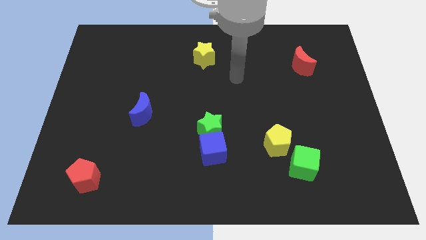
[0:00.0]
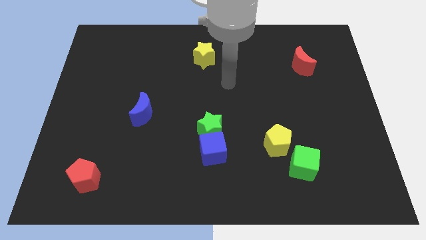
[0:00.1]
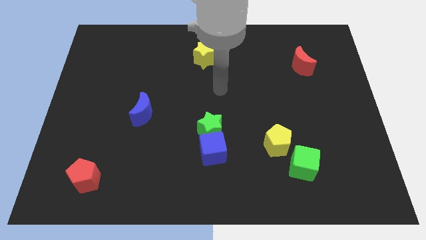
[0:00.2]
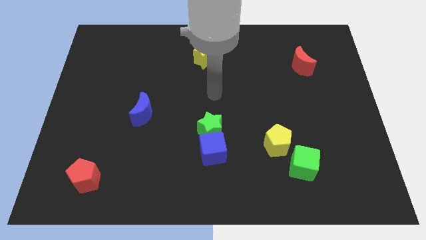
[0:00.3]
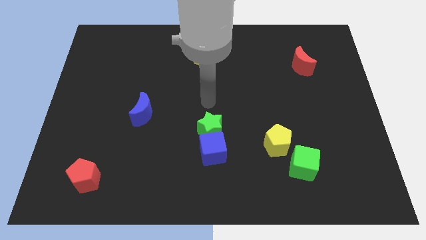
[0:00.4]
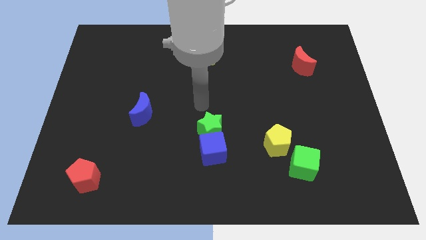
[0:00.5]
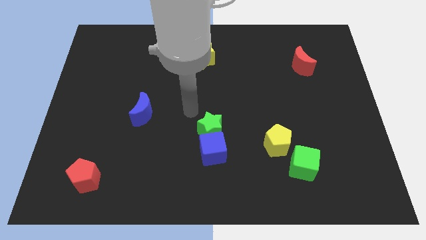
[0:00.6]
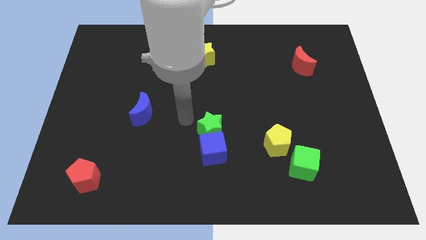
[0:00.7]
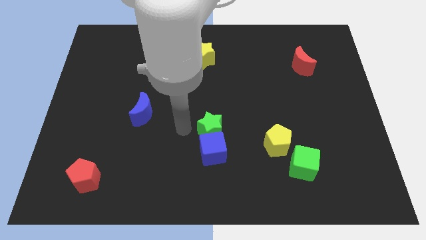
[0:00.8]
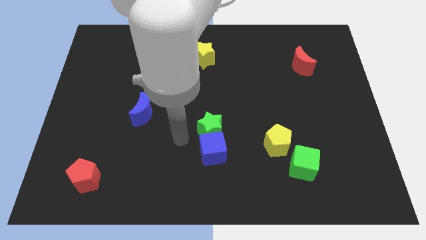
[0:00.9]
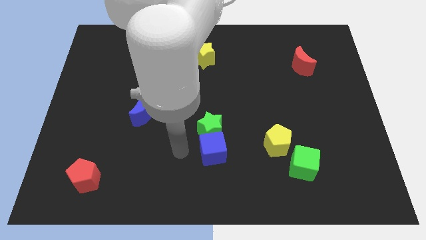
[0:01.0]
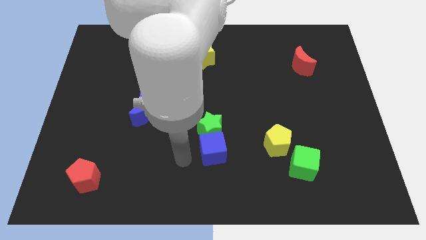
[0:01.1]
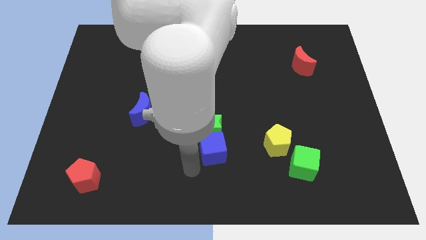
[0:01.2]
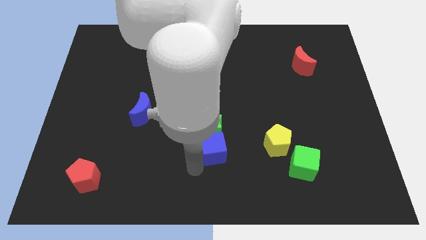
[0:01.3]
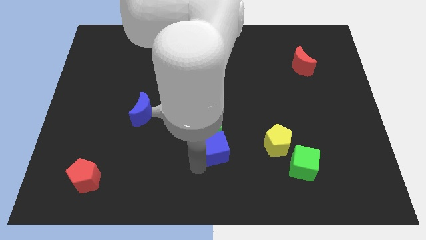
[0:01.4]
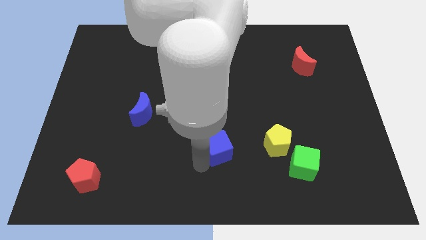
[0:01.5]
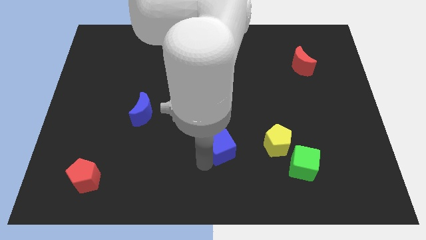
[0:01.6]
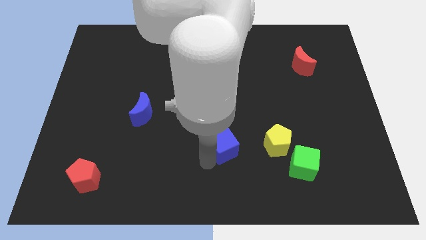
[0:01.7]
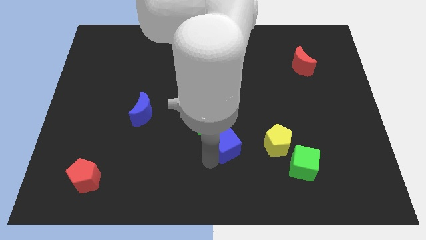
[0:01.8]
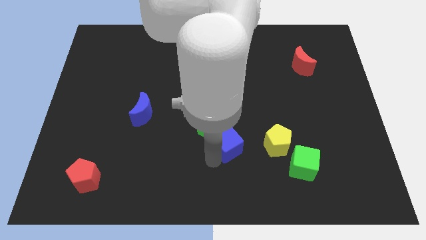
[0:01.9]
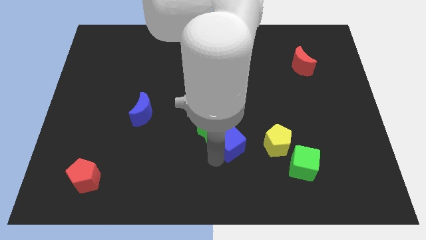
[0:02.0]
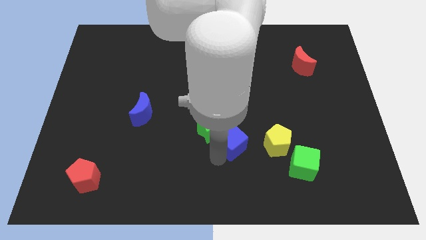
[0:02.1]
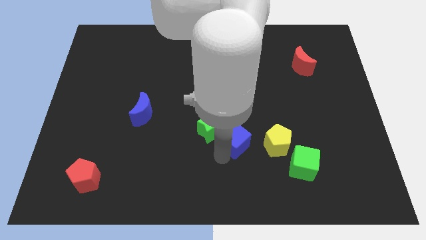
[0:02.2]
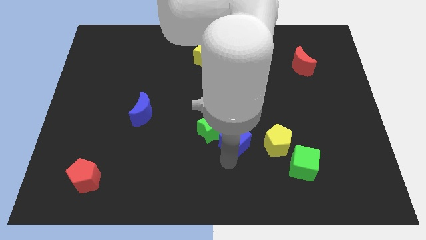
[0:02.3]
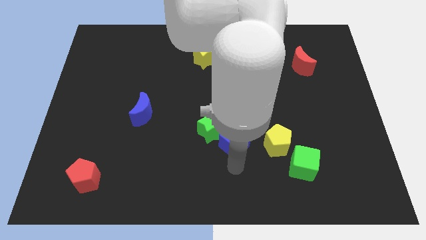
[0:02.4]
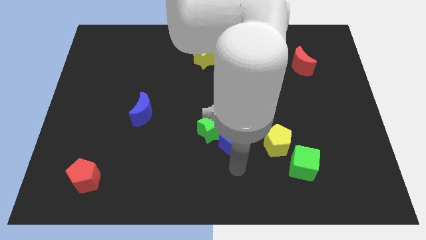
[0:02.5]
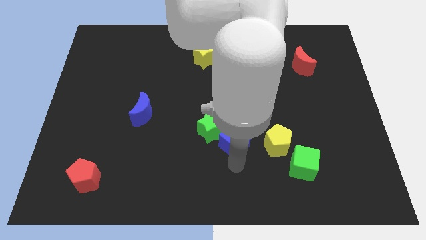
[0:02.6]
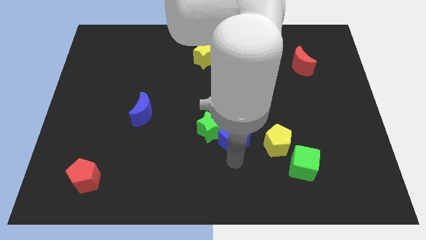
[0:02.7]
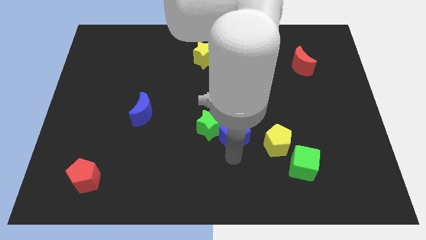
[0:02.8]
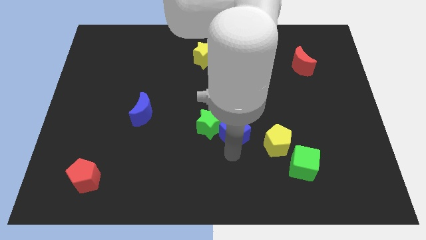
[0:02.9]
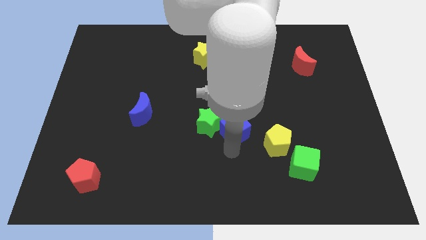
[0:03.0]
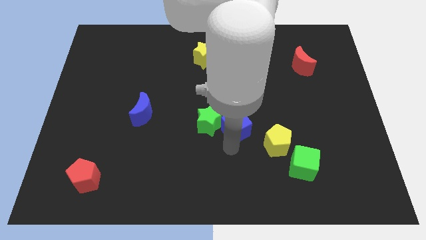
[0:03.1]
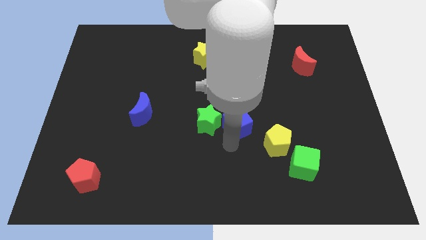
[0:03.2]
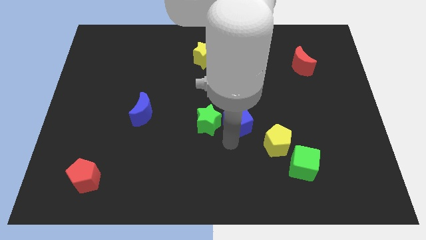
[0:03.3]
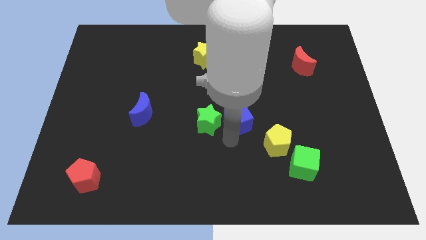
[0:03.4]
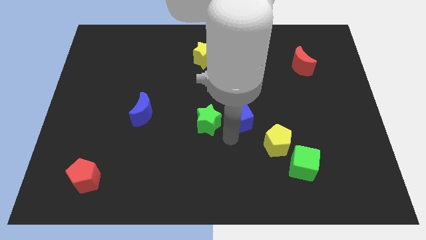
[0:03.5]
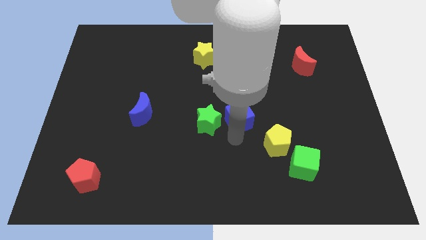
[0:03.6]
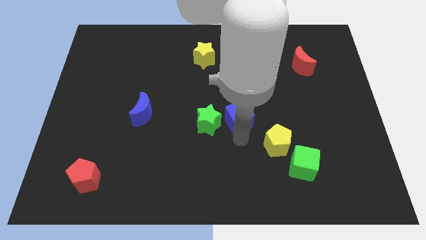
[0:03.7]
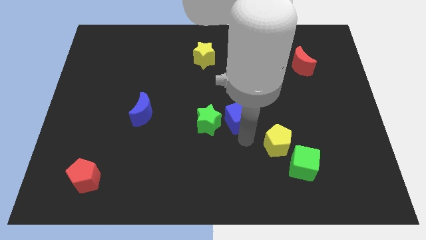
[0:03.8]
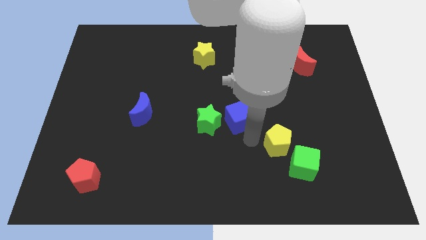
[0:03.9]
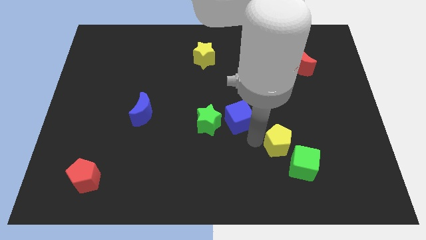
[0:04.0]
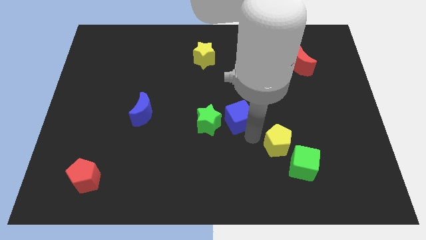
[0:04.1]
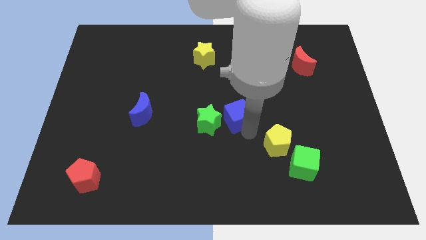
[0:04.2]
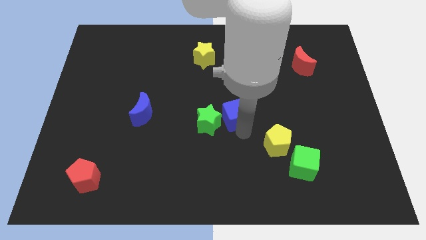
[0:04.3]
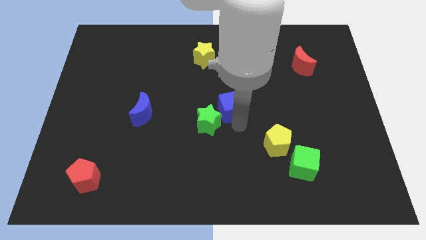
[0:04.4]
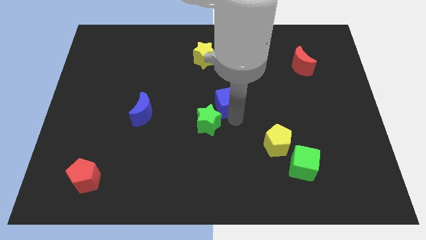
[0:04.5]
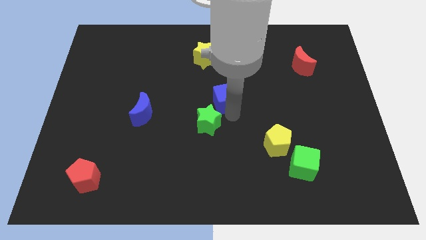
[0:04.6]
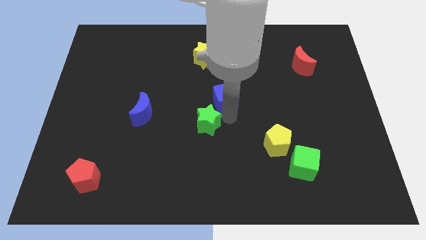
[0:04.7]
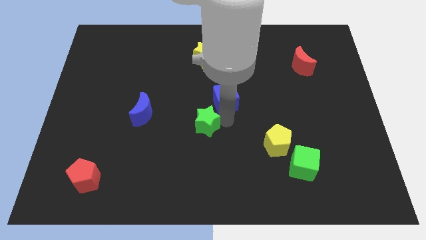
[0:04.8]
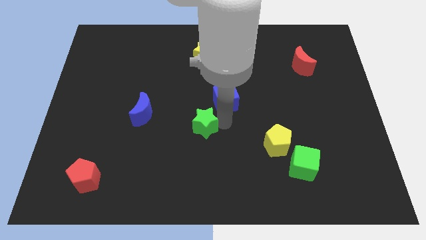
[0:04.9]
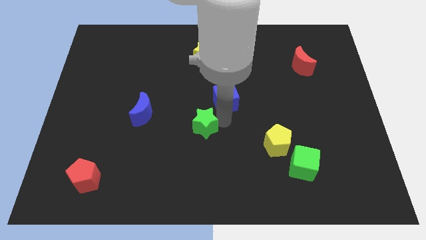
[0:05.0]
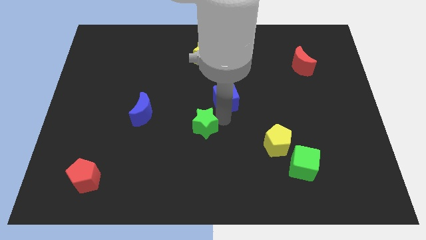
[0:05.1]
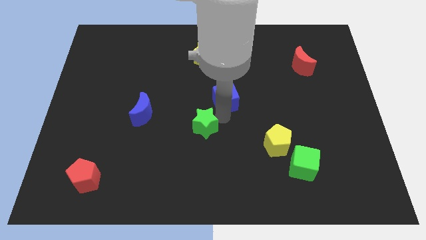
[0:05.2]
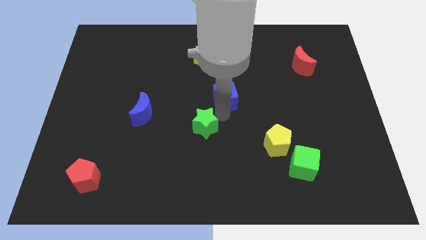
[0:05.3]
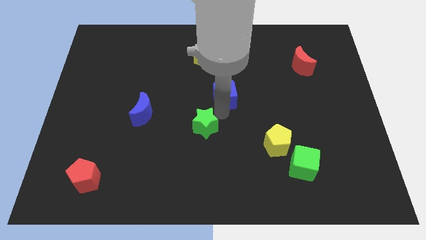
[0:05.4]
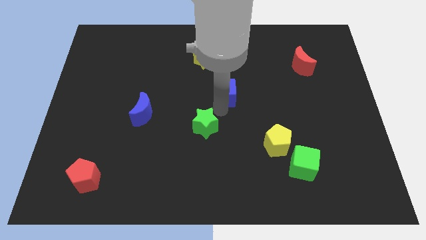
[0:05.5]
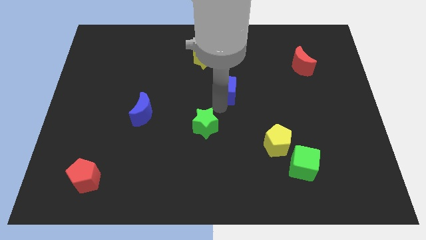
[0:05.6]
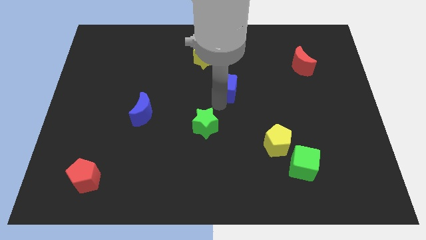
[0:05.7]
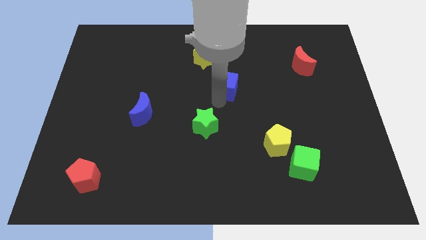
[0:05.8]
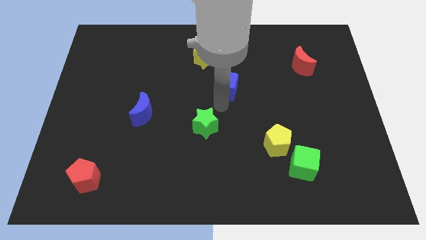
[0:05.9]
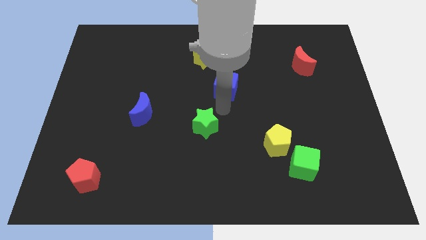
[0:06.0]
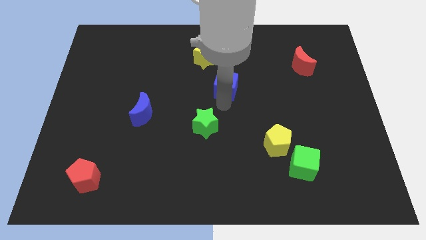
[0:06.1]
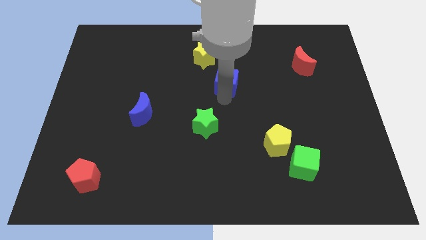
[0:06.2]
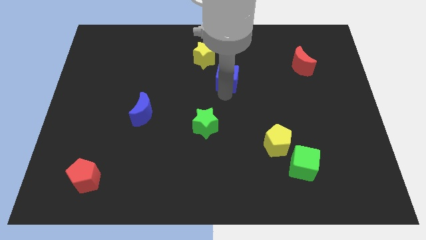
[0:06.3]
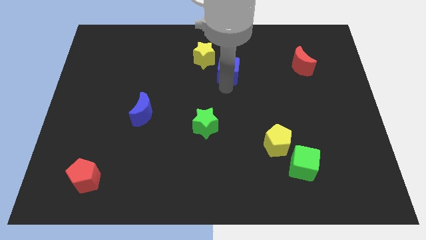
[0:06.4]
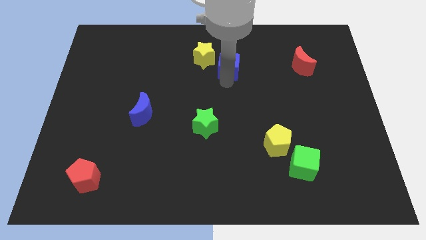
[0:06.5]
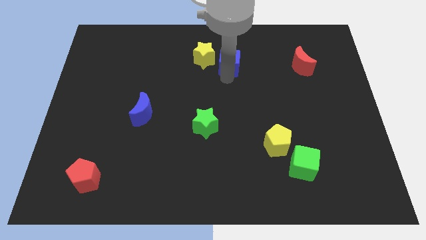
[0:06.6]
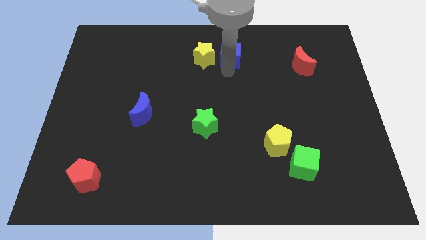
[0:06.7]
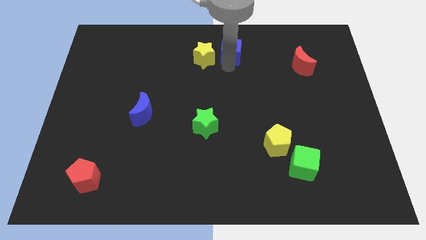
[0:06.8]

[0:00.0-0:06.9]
move the blue cube to the towards your base
